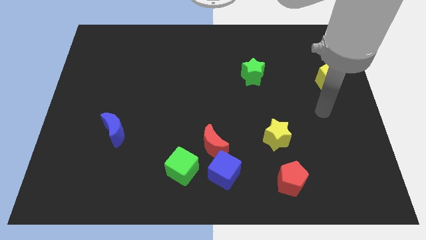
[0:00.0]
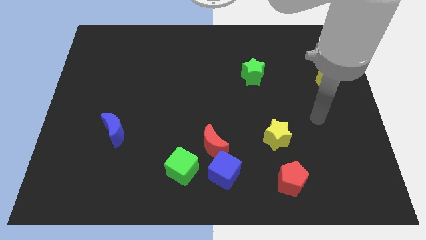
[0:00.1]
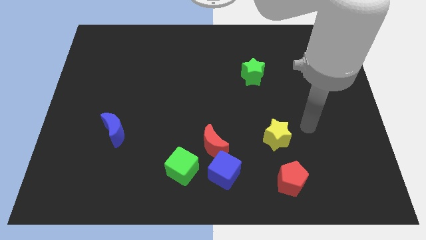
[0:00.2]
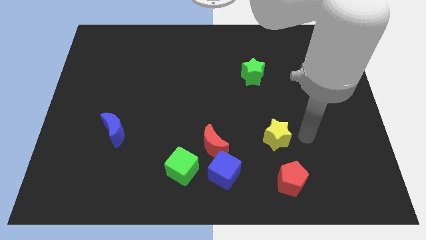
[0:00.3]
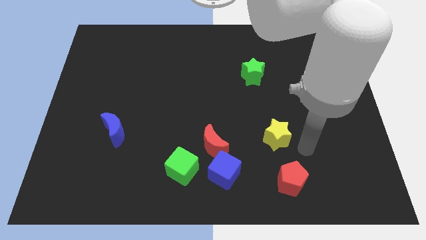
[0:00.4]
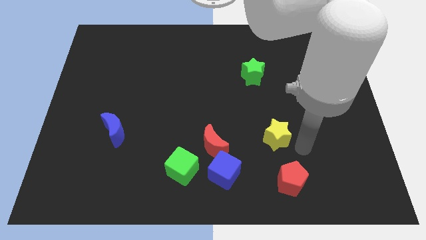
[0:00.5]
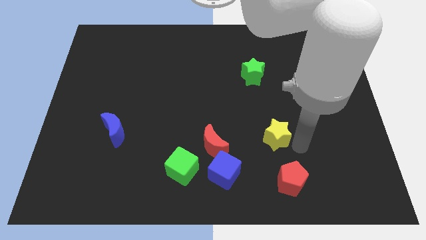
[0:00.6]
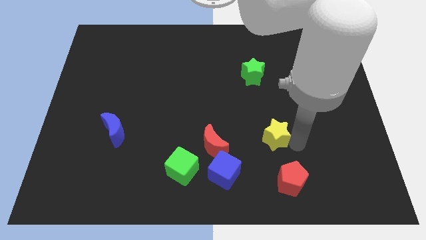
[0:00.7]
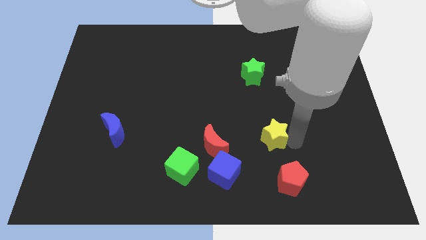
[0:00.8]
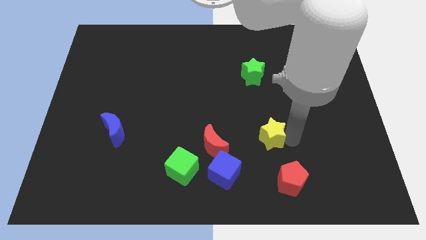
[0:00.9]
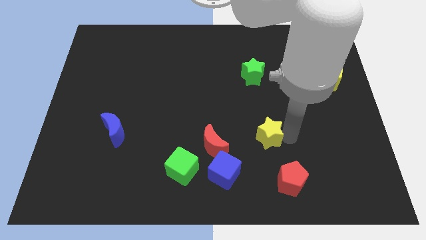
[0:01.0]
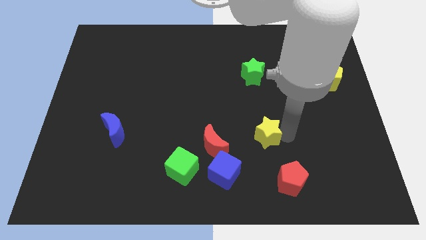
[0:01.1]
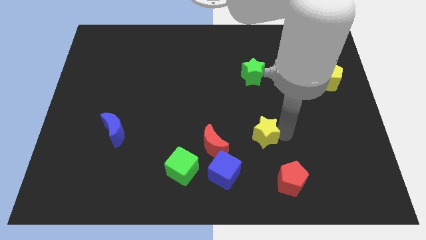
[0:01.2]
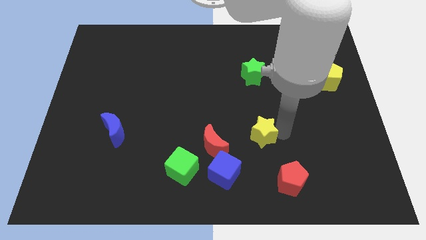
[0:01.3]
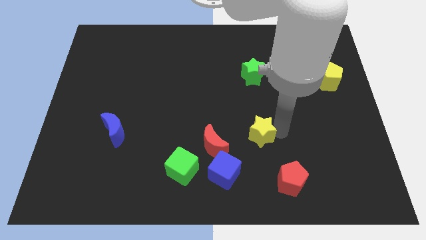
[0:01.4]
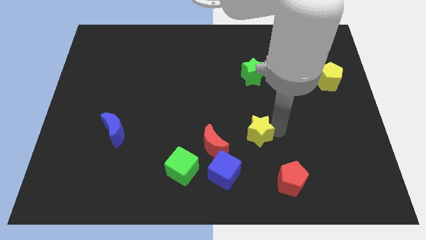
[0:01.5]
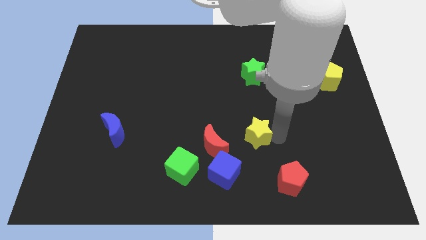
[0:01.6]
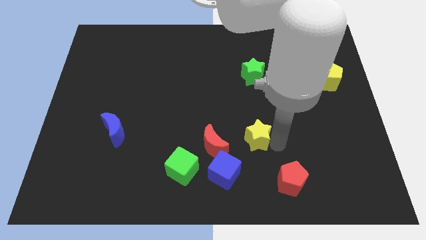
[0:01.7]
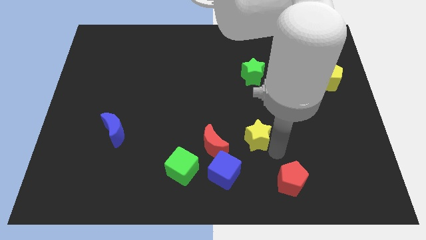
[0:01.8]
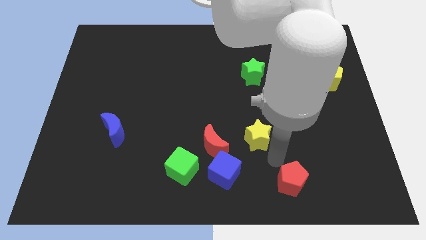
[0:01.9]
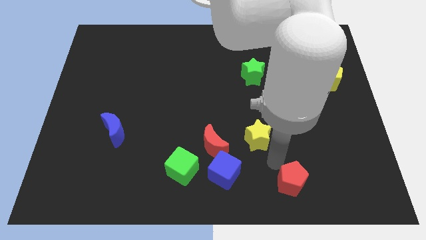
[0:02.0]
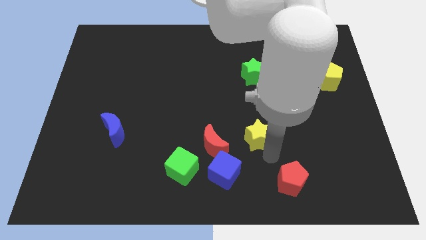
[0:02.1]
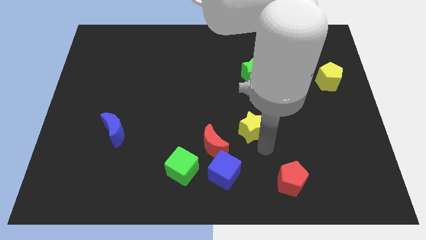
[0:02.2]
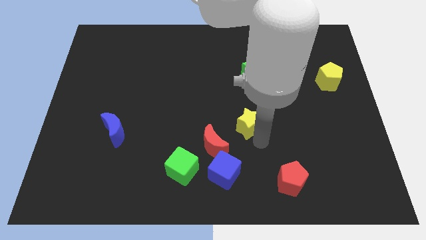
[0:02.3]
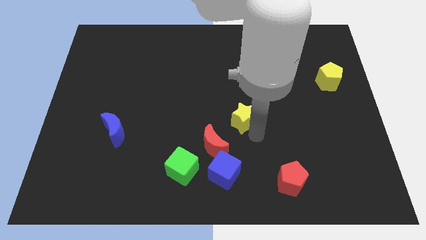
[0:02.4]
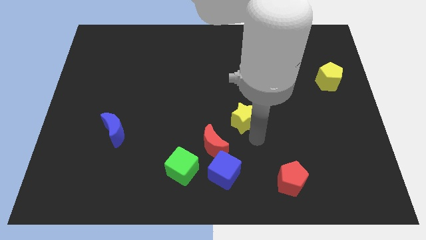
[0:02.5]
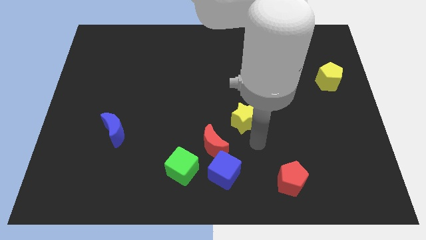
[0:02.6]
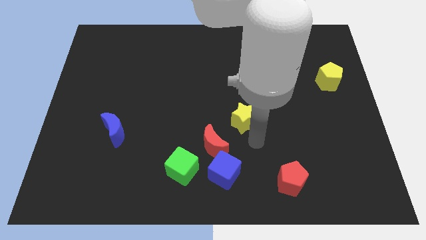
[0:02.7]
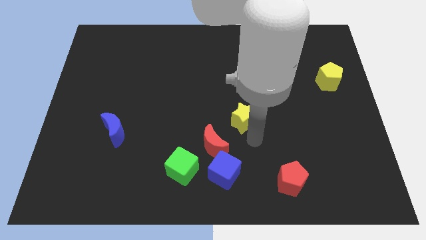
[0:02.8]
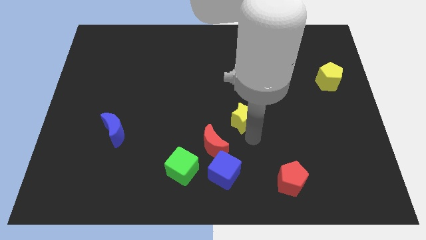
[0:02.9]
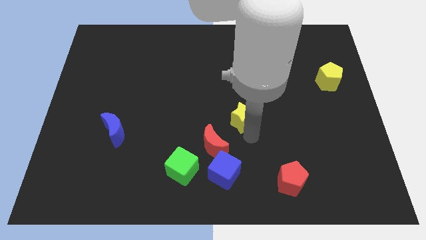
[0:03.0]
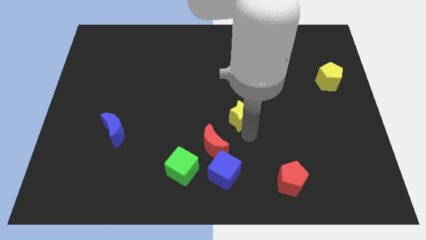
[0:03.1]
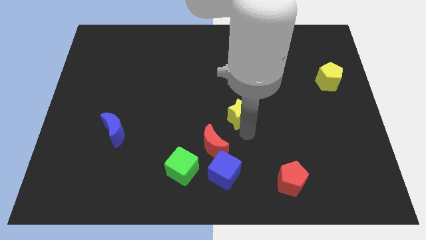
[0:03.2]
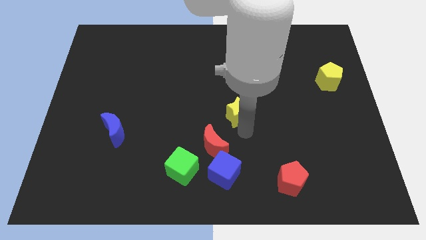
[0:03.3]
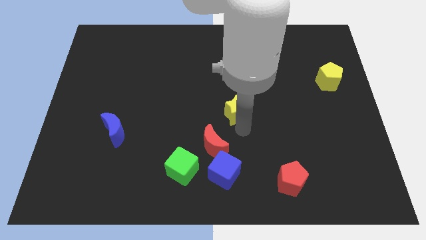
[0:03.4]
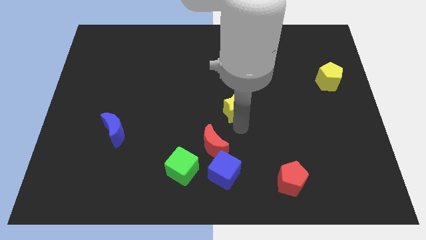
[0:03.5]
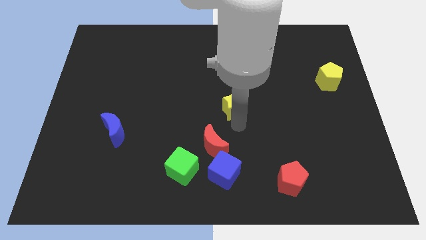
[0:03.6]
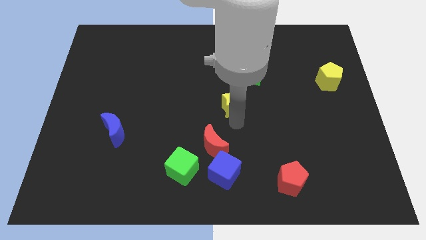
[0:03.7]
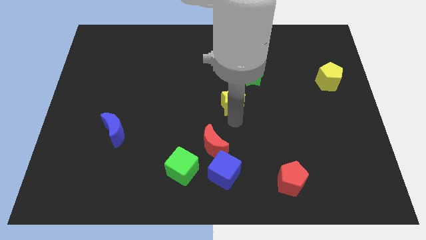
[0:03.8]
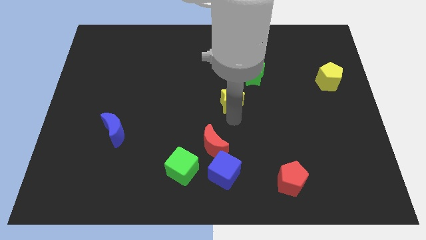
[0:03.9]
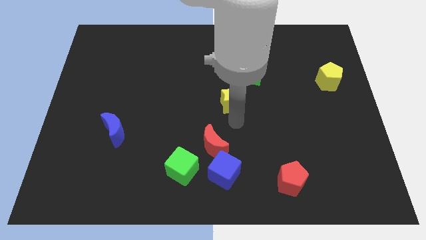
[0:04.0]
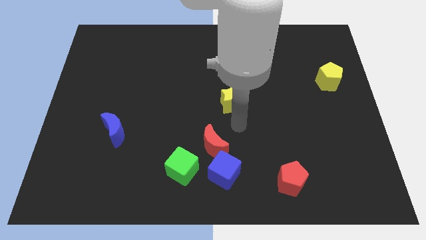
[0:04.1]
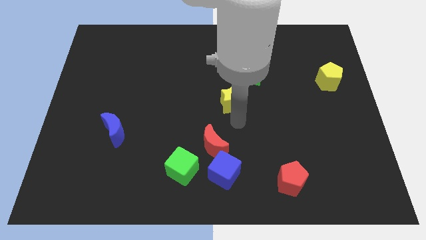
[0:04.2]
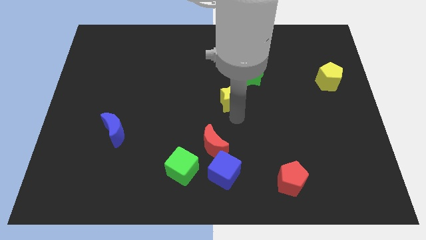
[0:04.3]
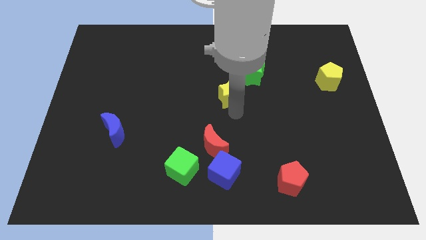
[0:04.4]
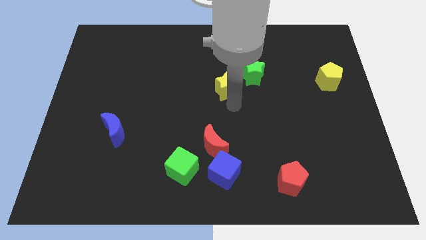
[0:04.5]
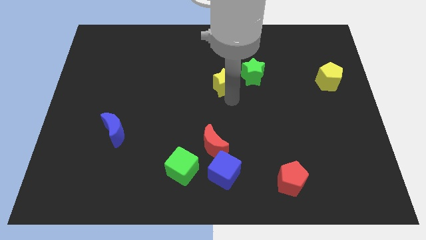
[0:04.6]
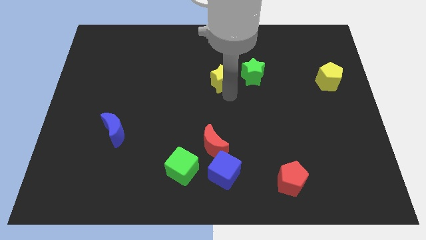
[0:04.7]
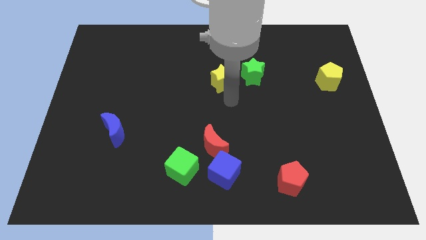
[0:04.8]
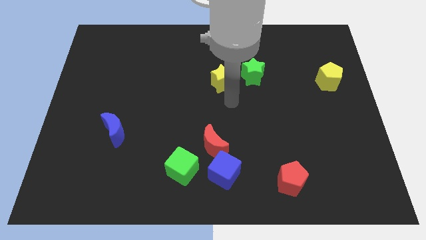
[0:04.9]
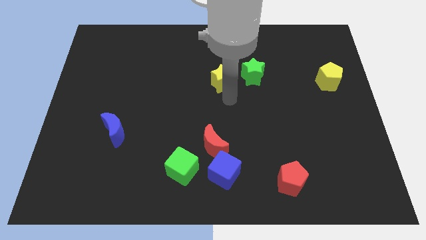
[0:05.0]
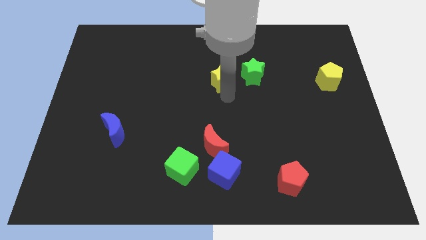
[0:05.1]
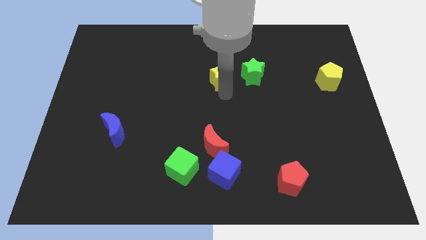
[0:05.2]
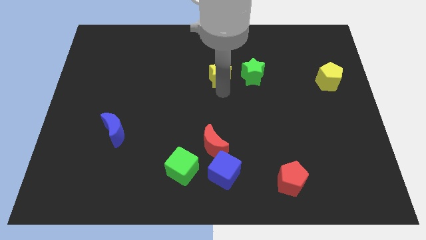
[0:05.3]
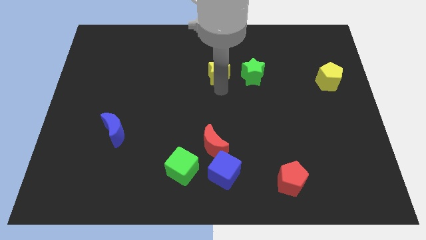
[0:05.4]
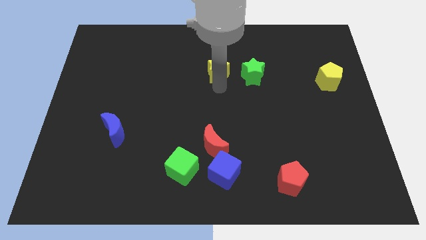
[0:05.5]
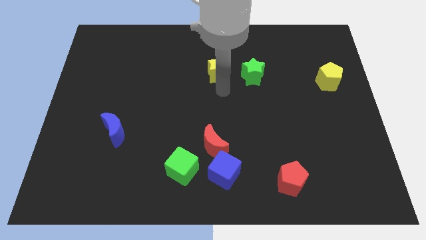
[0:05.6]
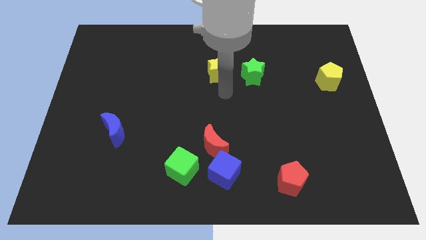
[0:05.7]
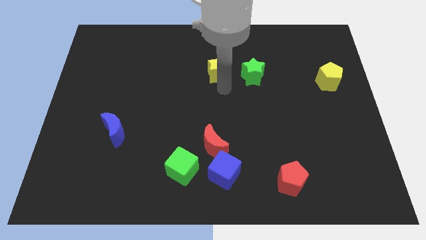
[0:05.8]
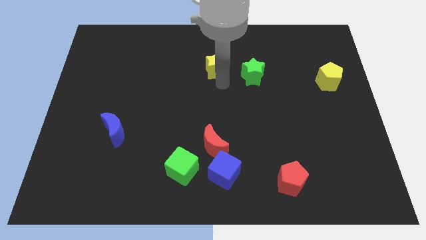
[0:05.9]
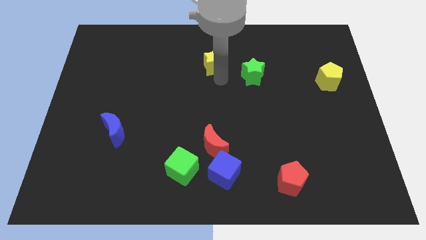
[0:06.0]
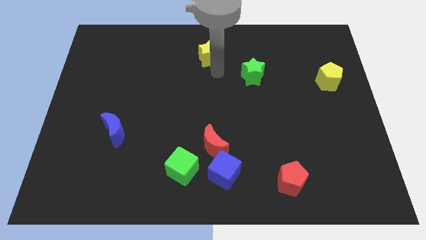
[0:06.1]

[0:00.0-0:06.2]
push the yellow star to the towards your base
